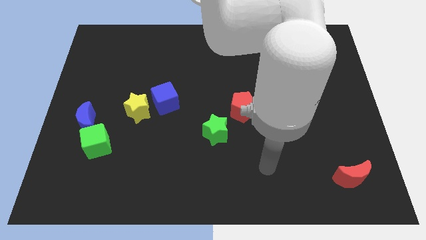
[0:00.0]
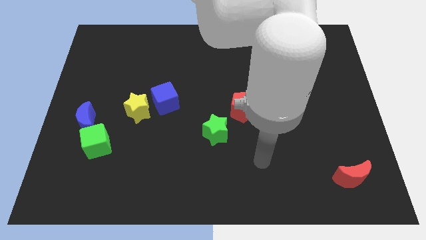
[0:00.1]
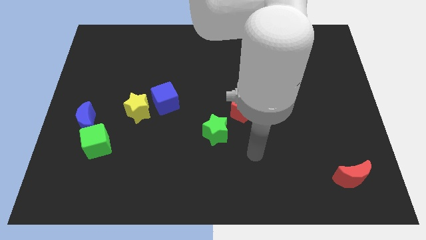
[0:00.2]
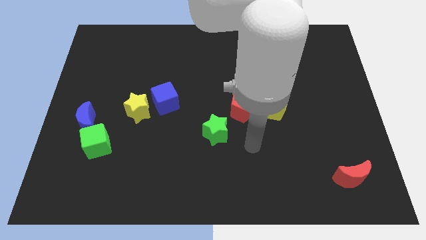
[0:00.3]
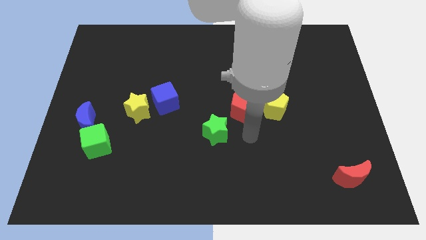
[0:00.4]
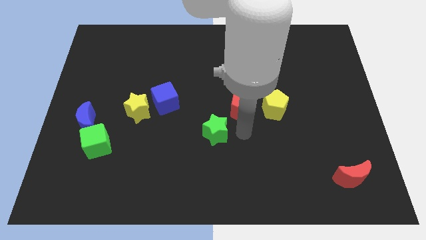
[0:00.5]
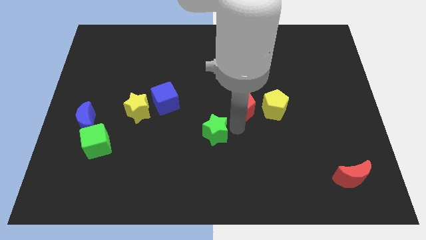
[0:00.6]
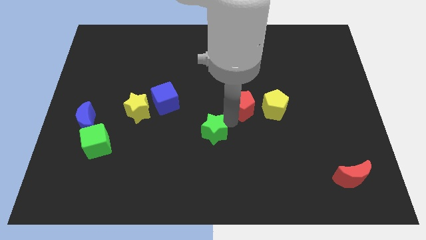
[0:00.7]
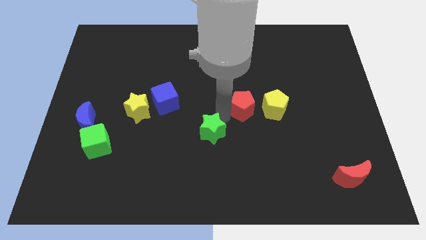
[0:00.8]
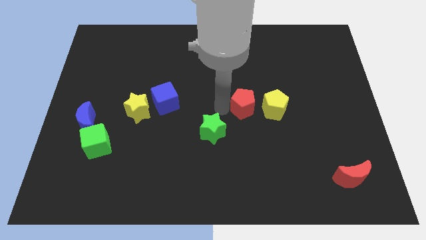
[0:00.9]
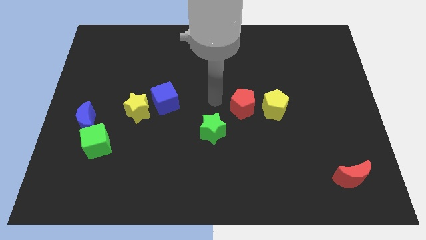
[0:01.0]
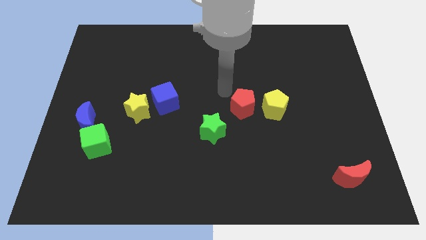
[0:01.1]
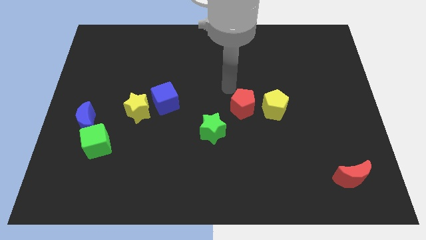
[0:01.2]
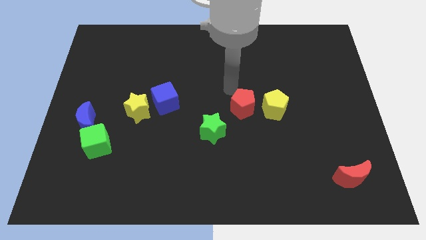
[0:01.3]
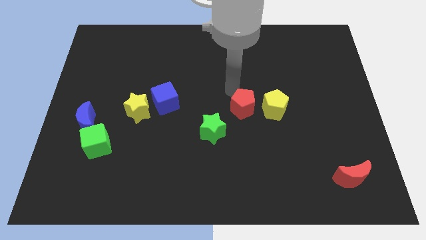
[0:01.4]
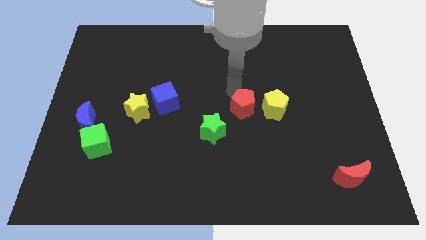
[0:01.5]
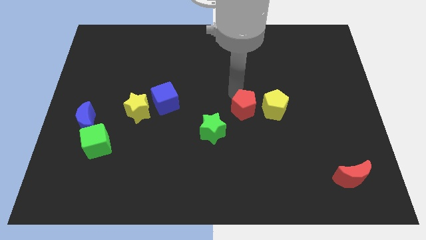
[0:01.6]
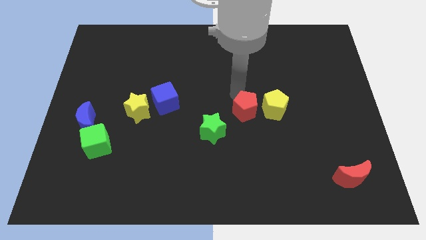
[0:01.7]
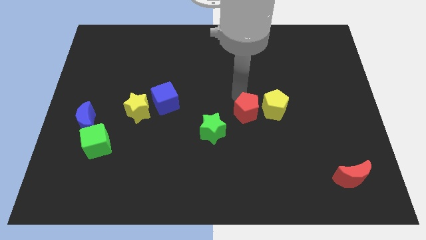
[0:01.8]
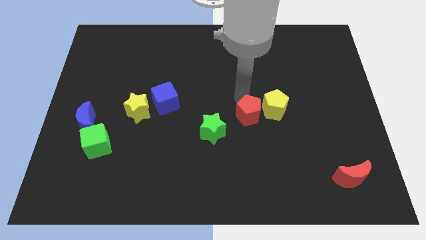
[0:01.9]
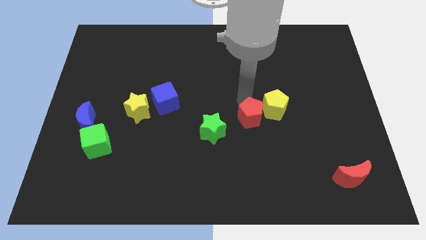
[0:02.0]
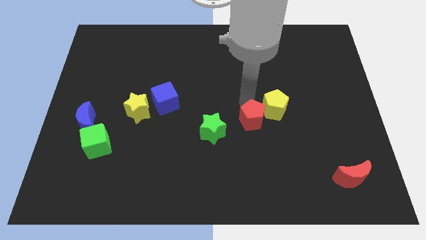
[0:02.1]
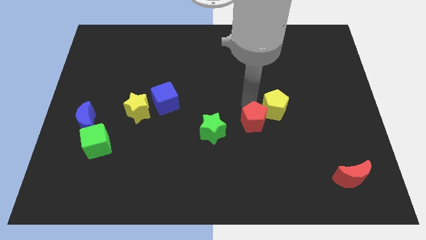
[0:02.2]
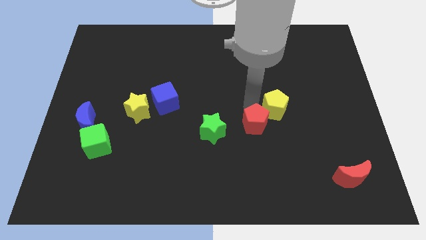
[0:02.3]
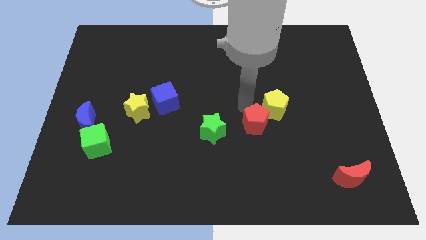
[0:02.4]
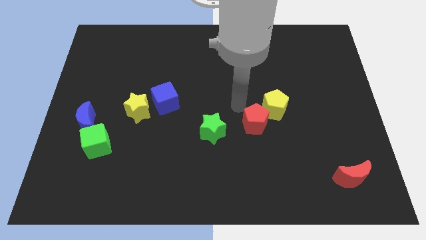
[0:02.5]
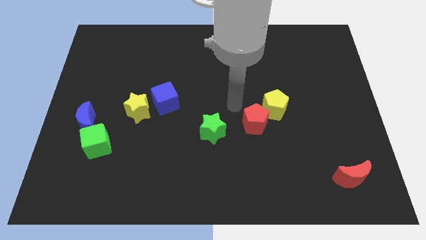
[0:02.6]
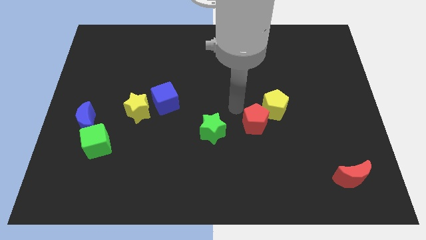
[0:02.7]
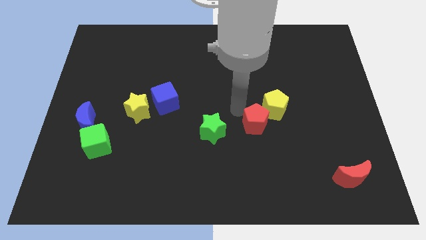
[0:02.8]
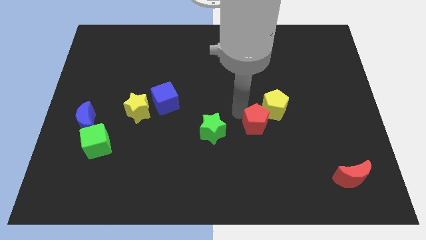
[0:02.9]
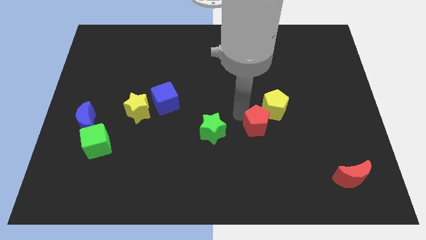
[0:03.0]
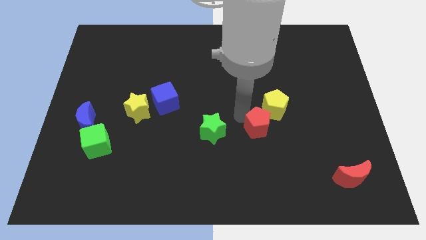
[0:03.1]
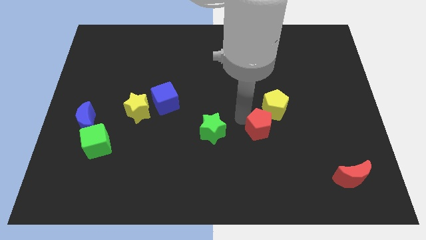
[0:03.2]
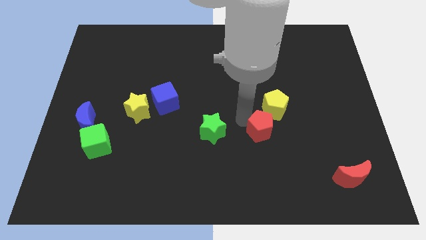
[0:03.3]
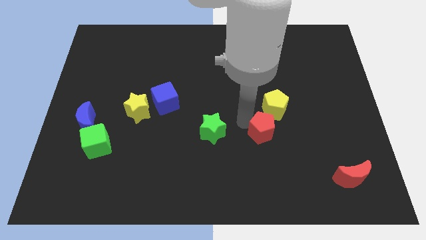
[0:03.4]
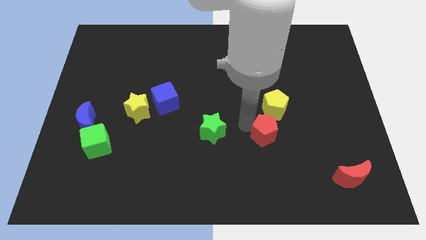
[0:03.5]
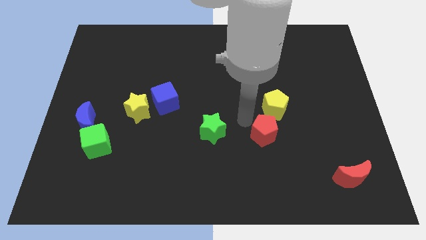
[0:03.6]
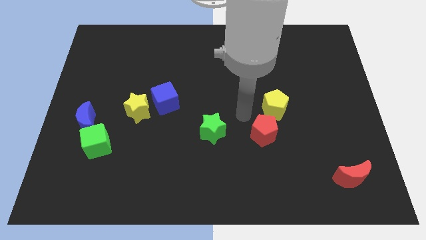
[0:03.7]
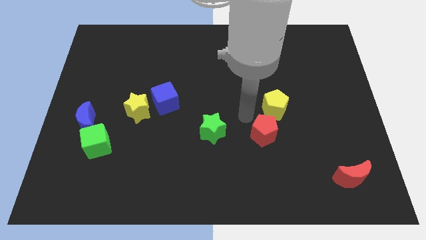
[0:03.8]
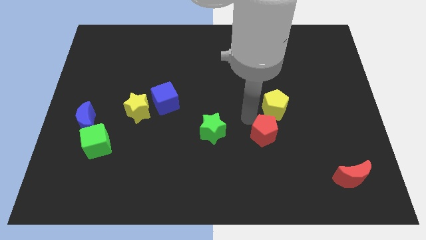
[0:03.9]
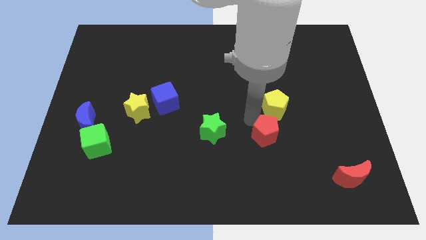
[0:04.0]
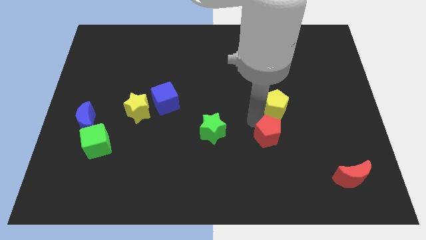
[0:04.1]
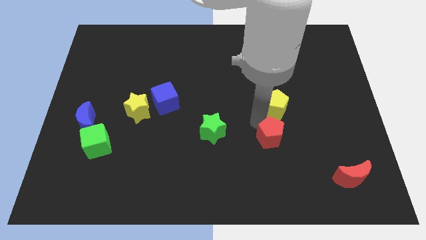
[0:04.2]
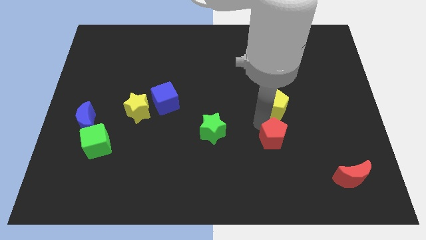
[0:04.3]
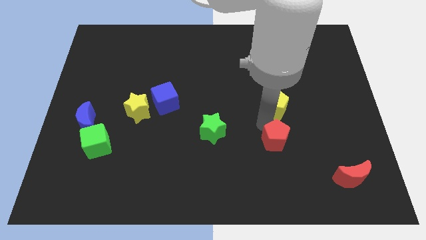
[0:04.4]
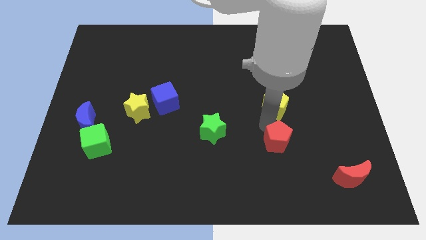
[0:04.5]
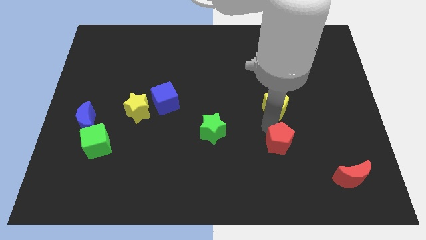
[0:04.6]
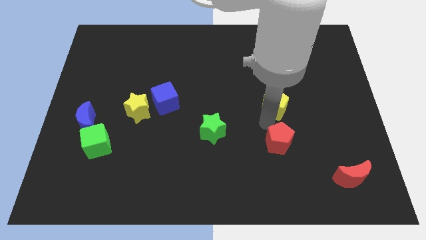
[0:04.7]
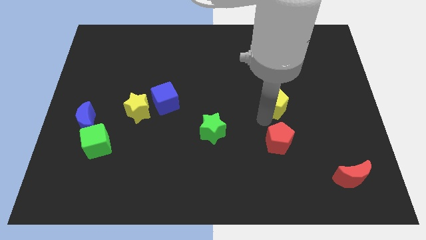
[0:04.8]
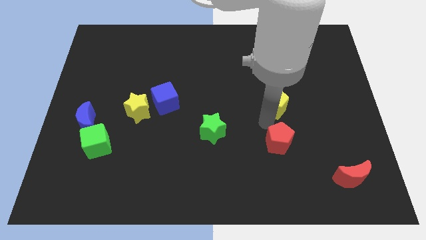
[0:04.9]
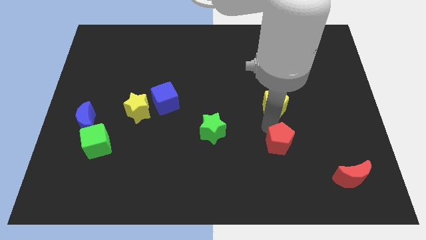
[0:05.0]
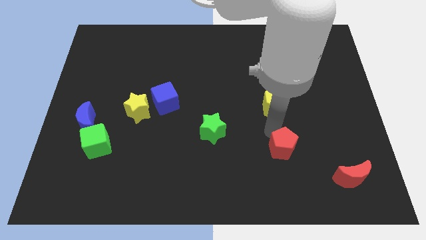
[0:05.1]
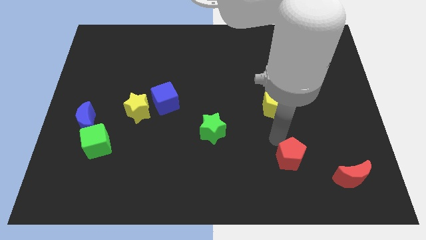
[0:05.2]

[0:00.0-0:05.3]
put the red pentagon to the left of the red moon

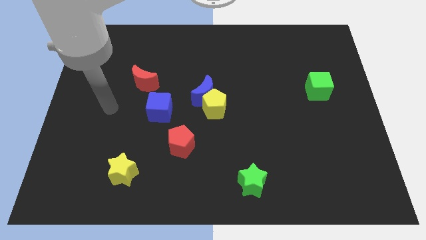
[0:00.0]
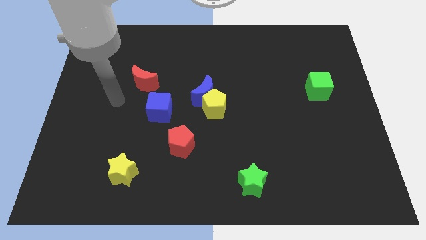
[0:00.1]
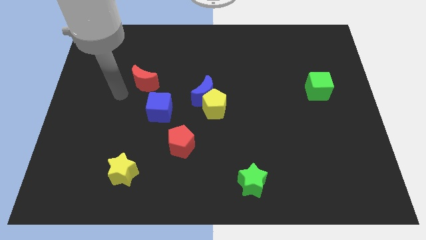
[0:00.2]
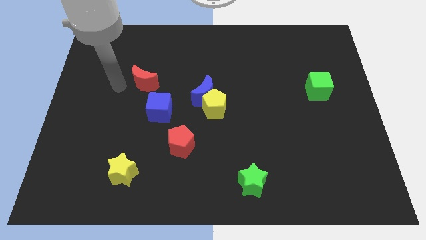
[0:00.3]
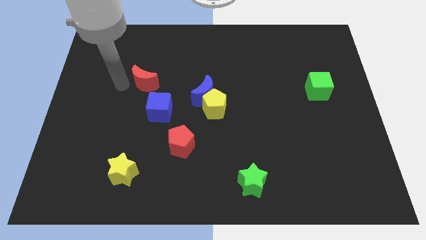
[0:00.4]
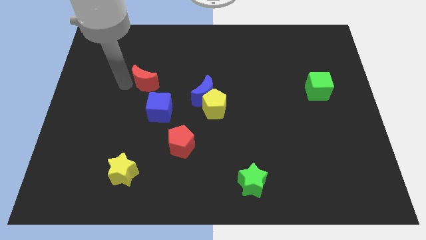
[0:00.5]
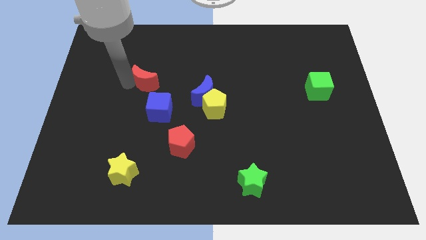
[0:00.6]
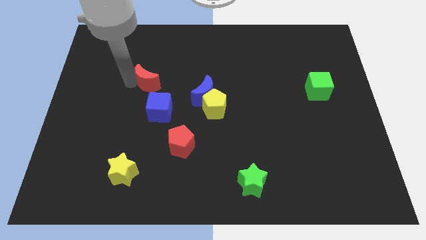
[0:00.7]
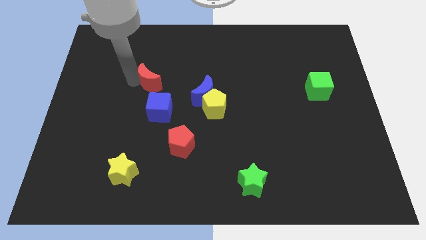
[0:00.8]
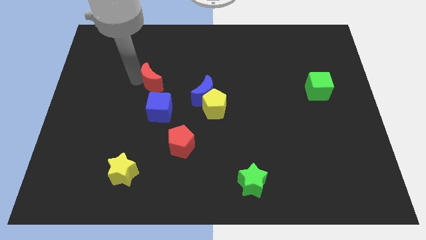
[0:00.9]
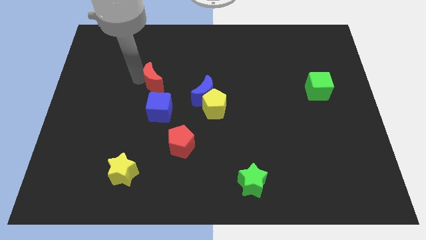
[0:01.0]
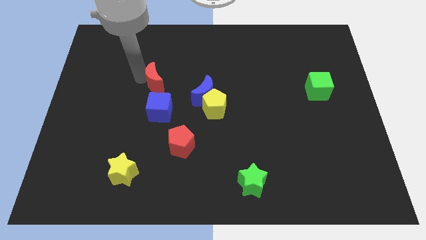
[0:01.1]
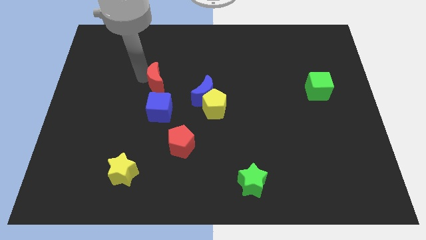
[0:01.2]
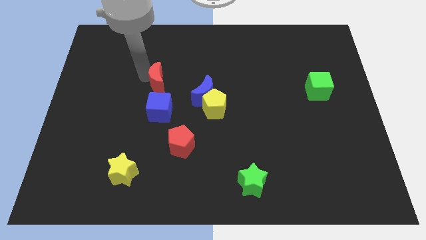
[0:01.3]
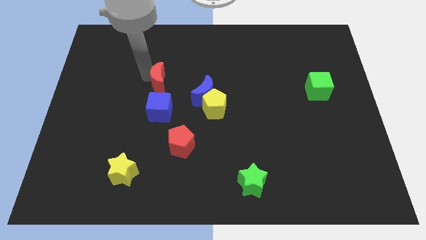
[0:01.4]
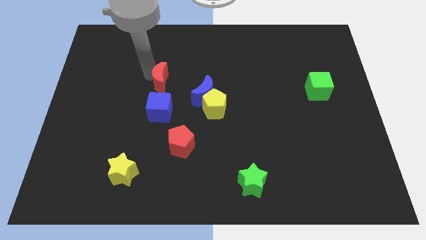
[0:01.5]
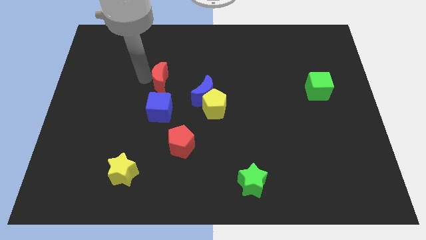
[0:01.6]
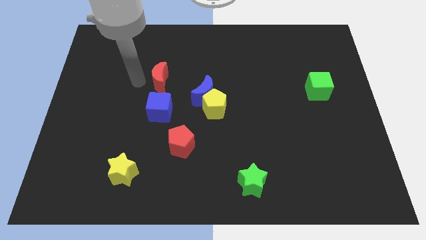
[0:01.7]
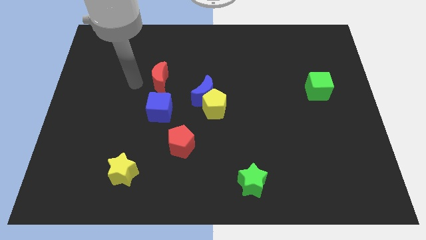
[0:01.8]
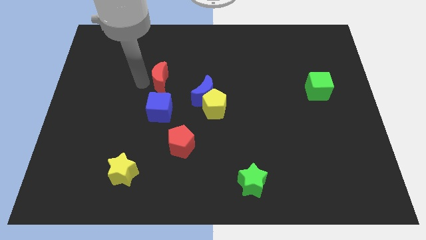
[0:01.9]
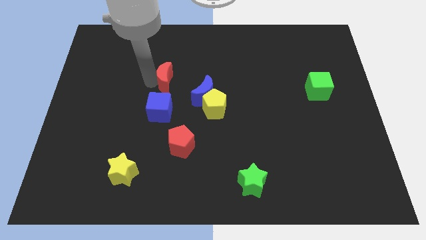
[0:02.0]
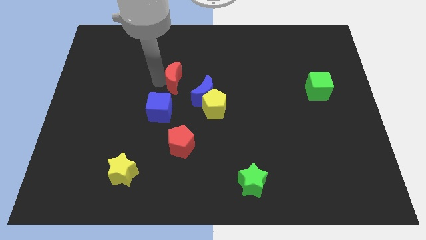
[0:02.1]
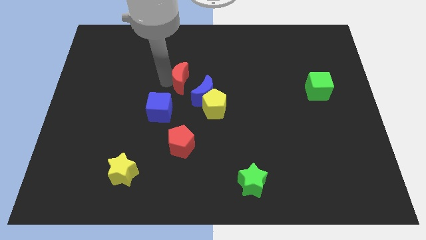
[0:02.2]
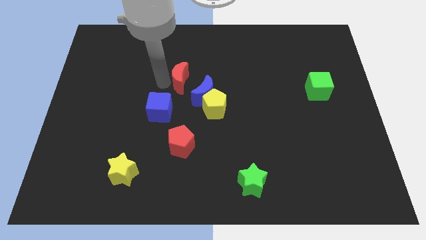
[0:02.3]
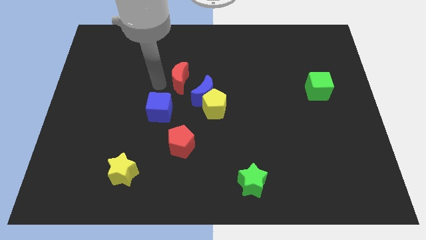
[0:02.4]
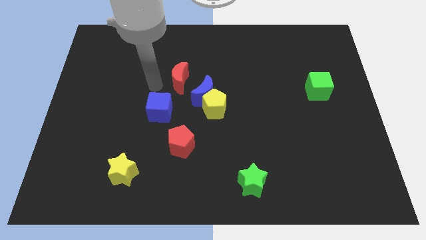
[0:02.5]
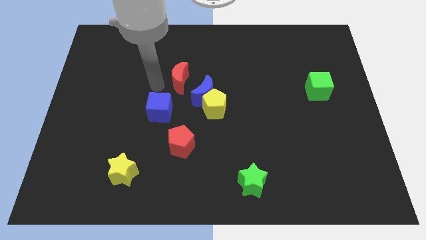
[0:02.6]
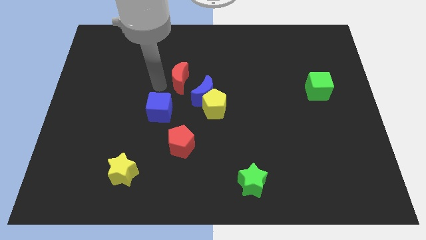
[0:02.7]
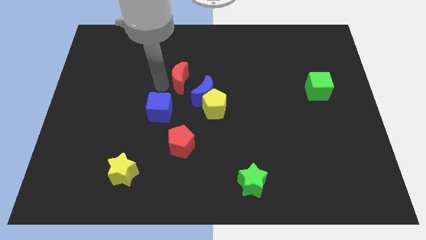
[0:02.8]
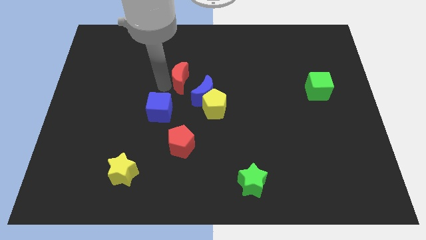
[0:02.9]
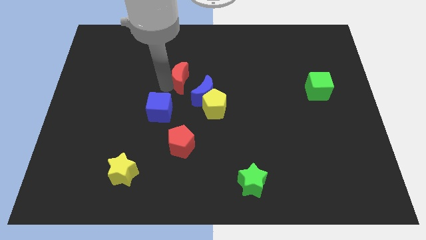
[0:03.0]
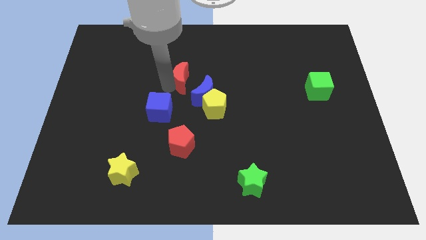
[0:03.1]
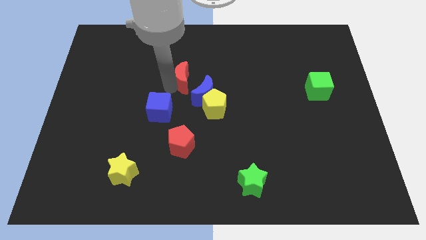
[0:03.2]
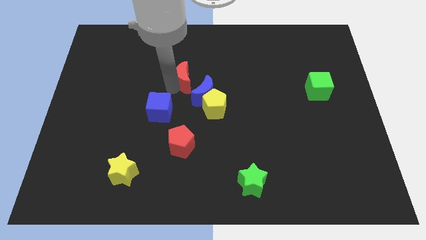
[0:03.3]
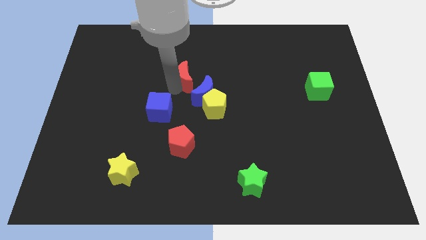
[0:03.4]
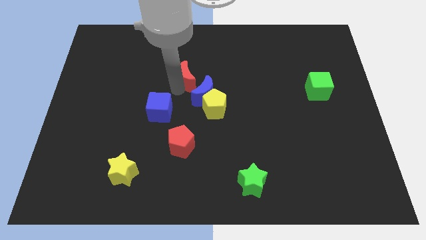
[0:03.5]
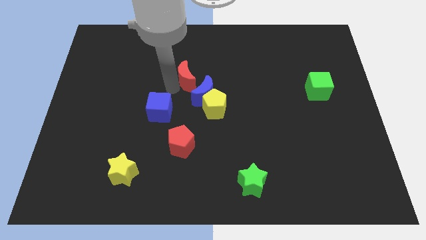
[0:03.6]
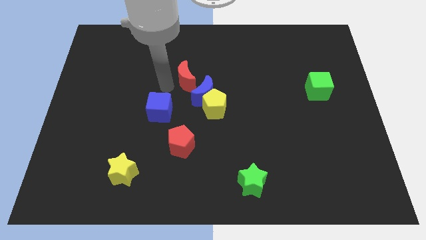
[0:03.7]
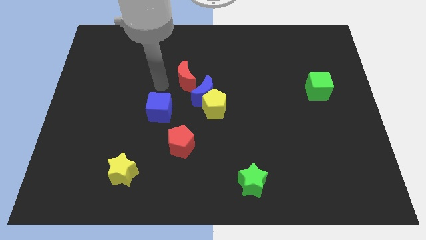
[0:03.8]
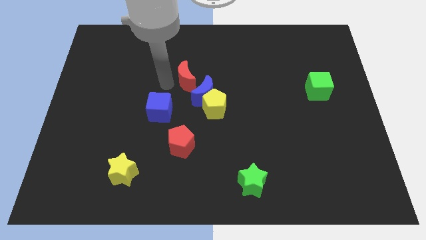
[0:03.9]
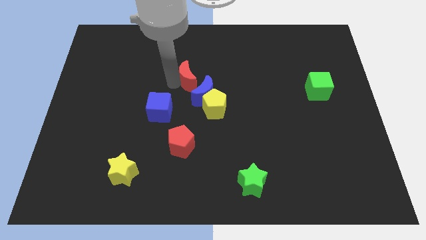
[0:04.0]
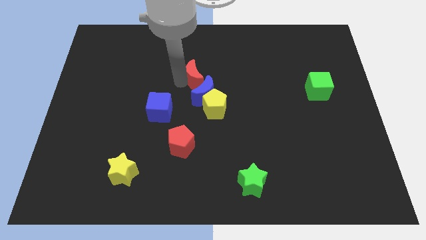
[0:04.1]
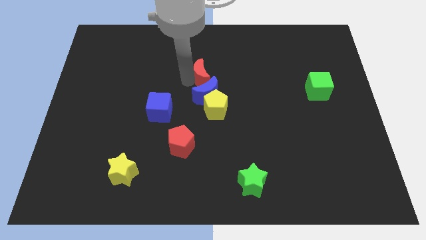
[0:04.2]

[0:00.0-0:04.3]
put the red moon to the top side of the yellow pentagon
